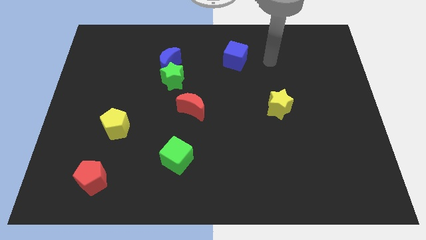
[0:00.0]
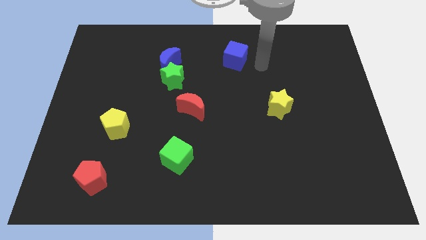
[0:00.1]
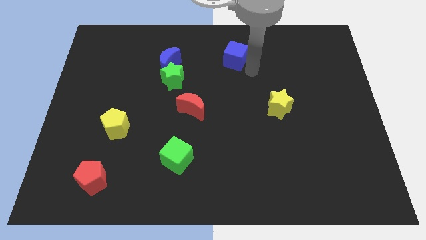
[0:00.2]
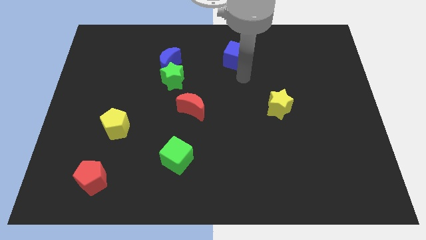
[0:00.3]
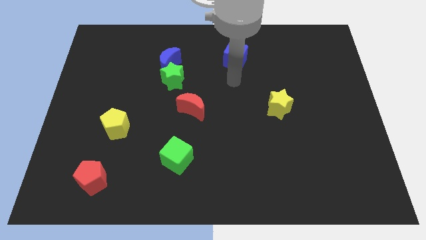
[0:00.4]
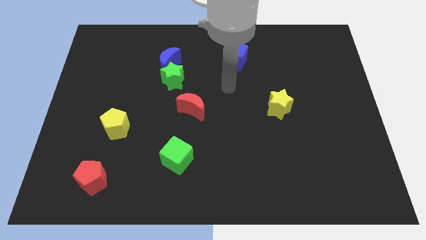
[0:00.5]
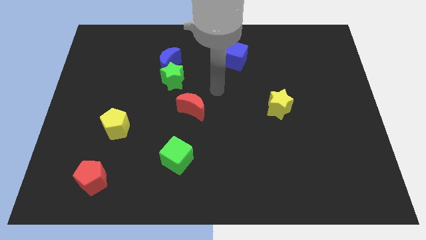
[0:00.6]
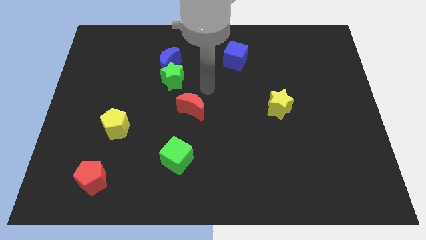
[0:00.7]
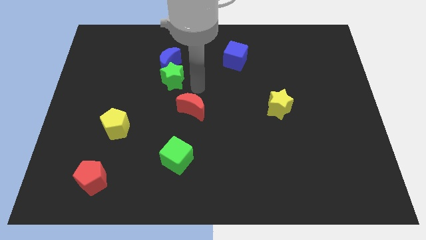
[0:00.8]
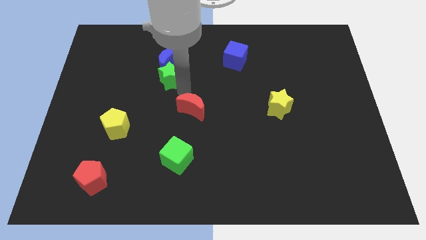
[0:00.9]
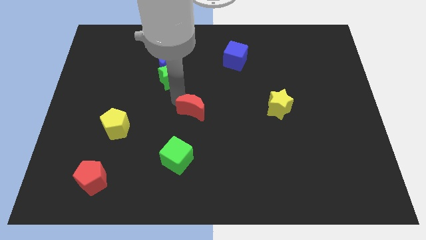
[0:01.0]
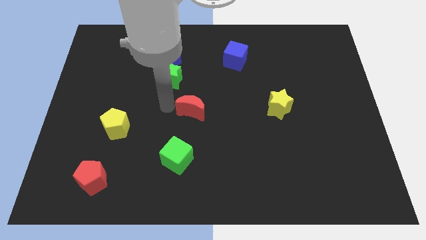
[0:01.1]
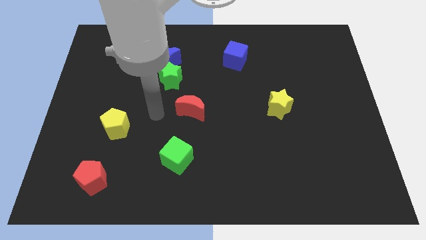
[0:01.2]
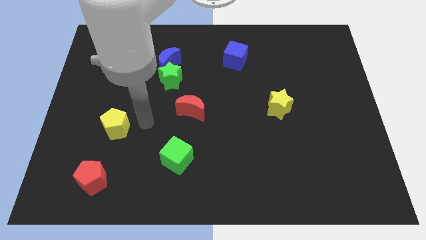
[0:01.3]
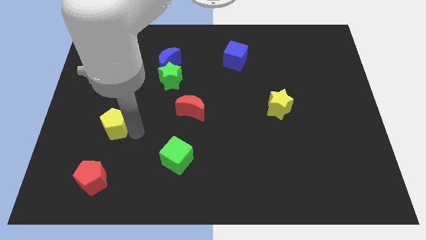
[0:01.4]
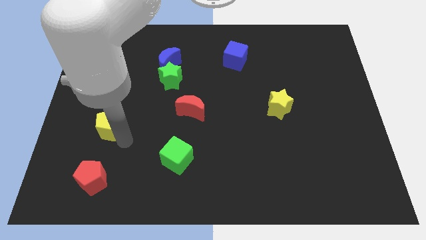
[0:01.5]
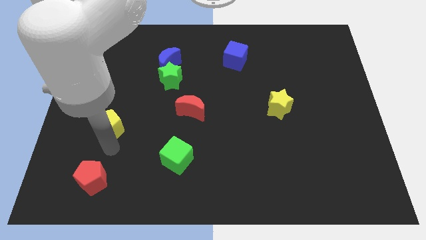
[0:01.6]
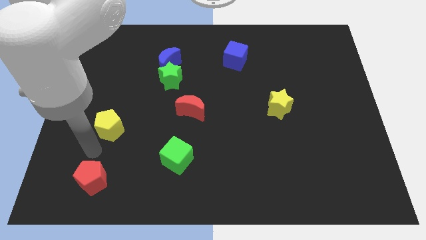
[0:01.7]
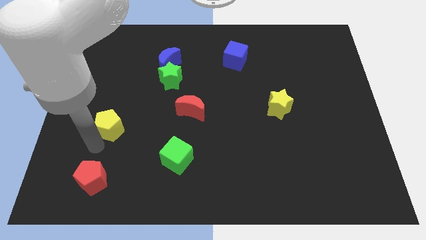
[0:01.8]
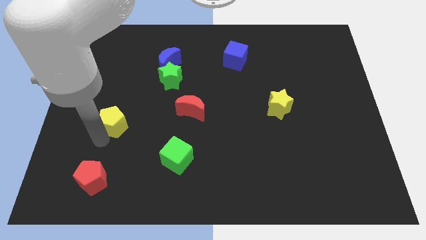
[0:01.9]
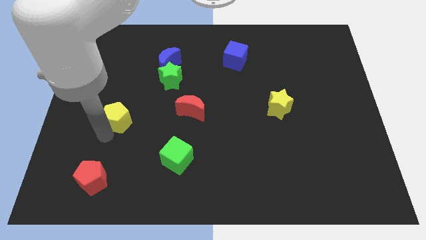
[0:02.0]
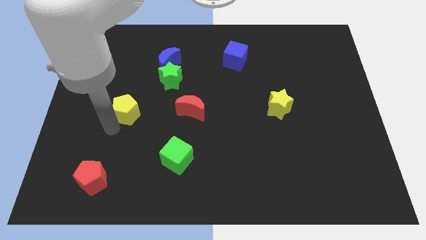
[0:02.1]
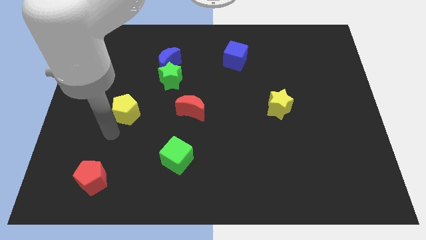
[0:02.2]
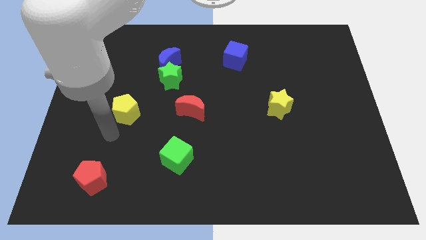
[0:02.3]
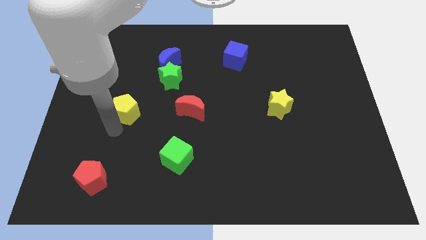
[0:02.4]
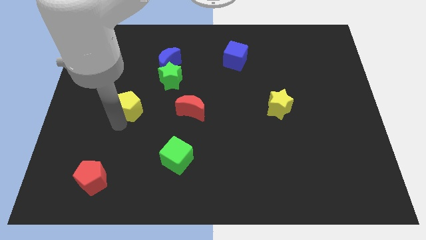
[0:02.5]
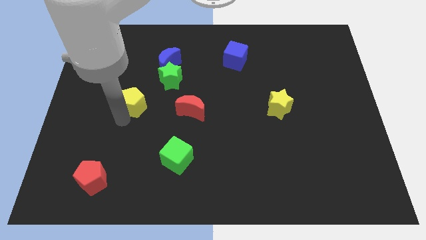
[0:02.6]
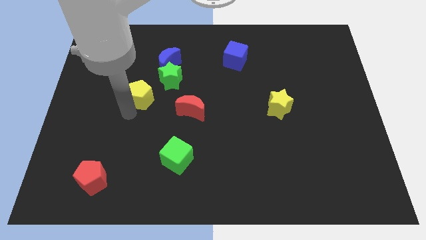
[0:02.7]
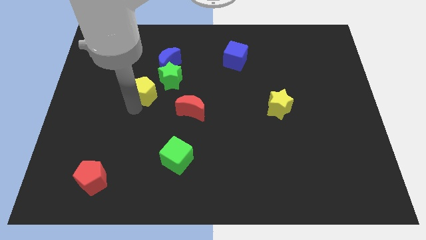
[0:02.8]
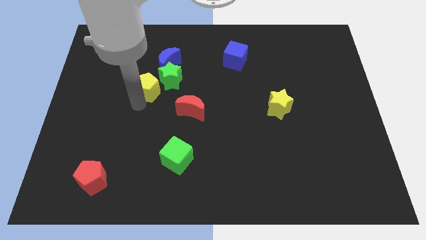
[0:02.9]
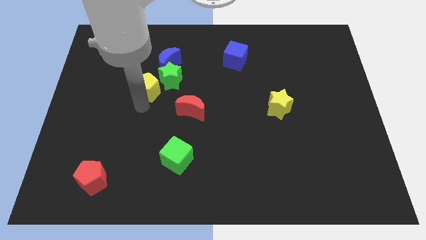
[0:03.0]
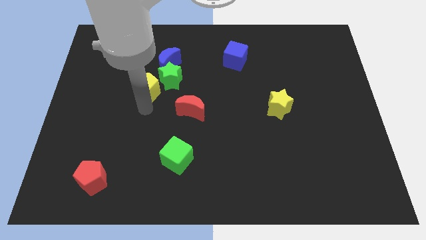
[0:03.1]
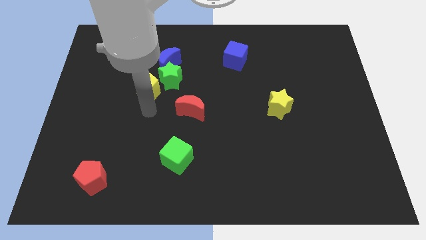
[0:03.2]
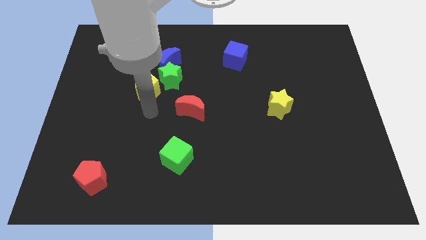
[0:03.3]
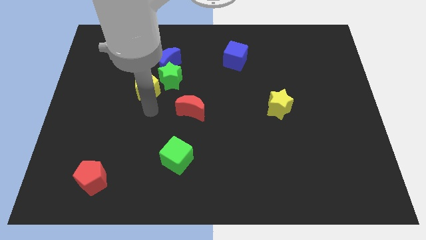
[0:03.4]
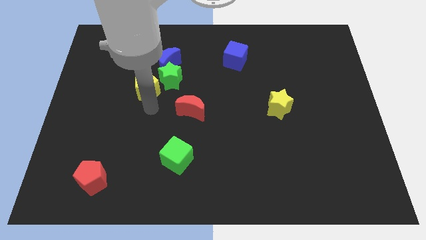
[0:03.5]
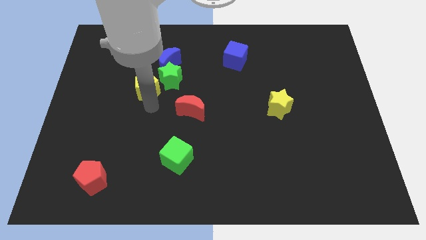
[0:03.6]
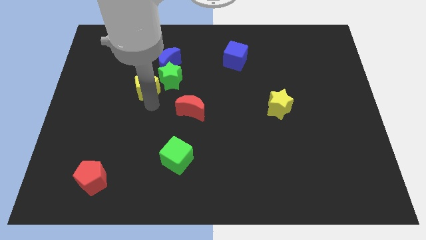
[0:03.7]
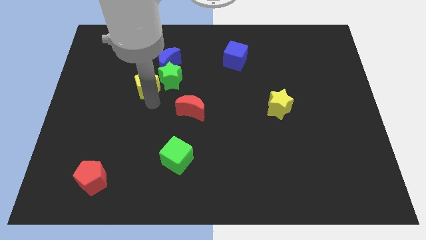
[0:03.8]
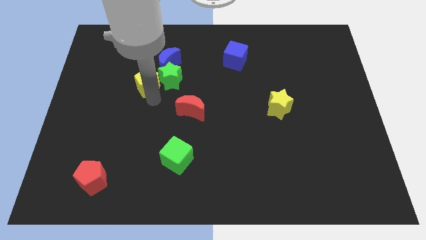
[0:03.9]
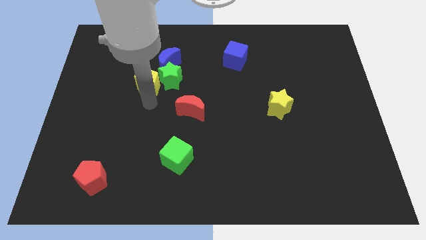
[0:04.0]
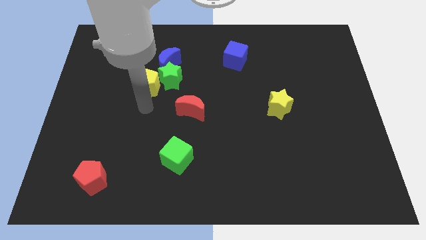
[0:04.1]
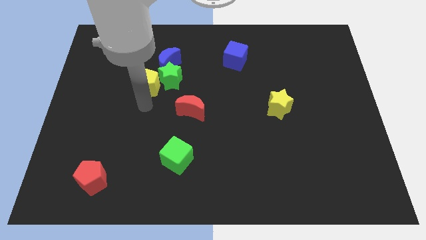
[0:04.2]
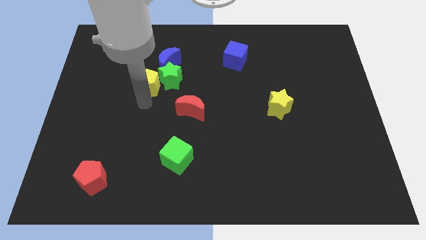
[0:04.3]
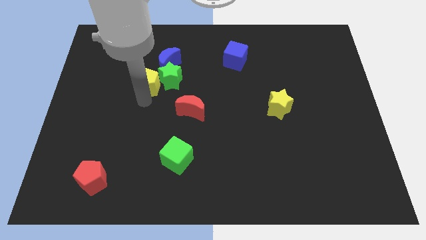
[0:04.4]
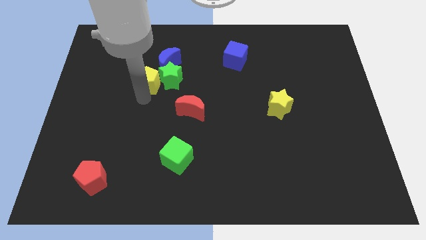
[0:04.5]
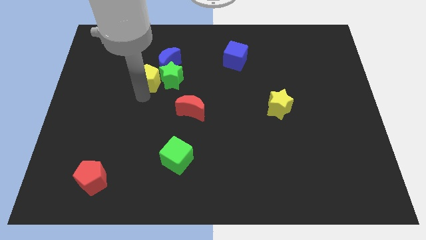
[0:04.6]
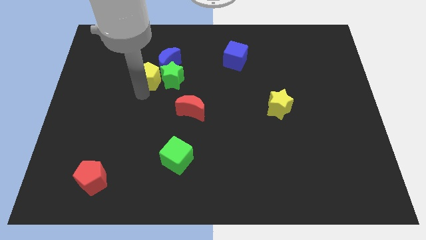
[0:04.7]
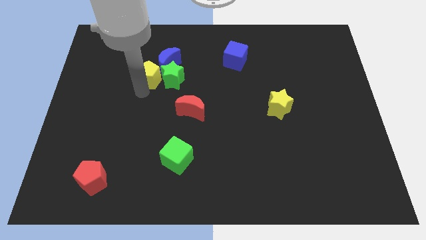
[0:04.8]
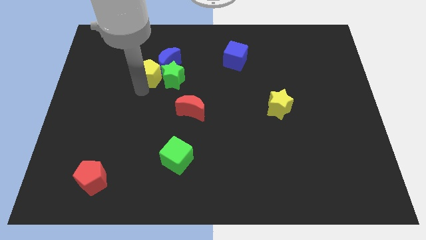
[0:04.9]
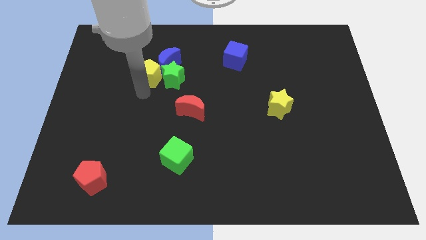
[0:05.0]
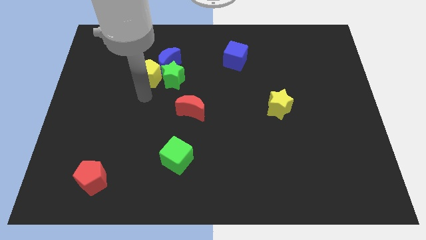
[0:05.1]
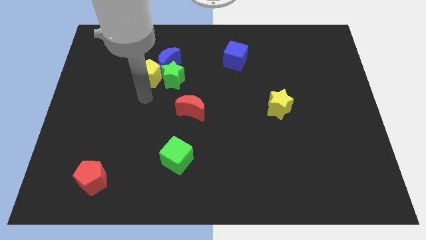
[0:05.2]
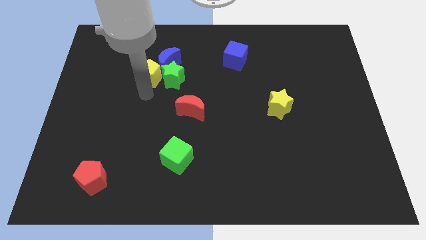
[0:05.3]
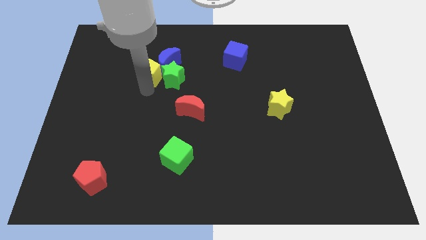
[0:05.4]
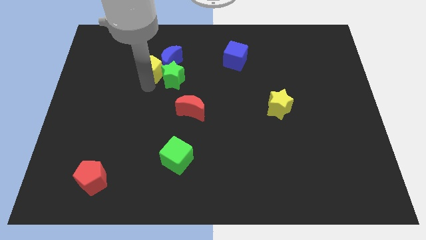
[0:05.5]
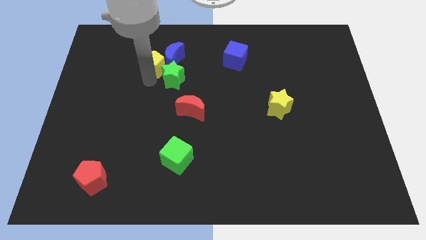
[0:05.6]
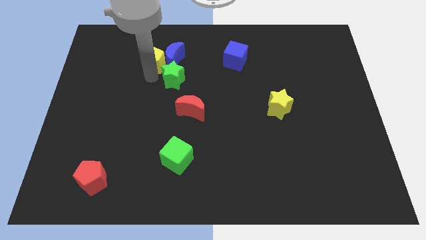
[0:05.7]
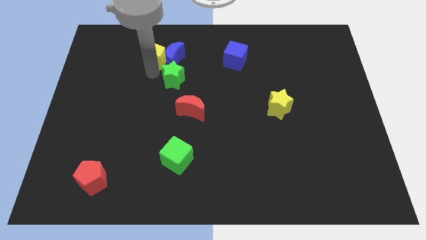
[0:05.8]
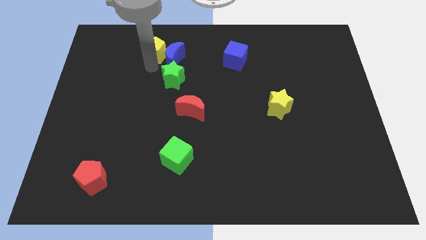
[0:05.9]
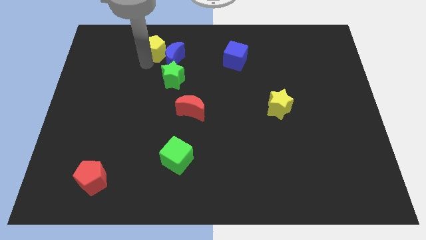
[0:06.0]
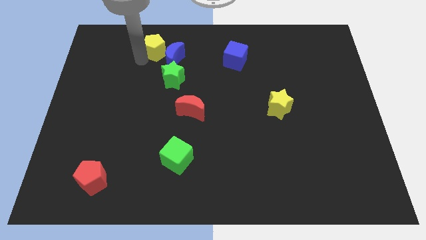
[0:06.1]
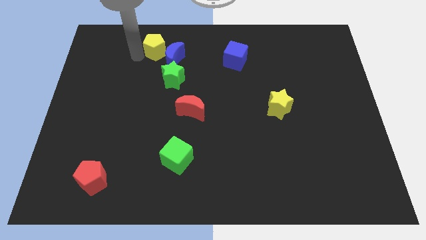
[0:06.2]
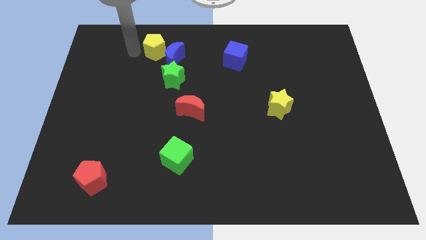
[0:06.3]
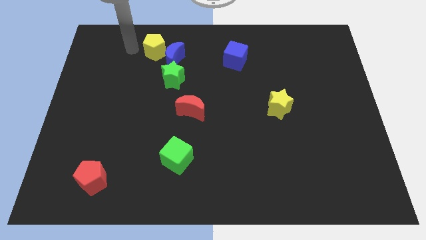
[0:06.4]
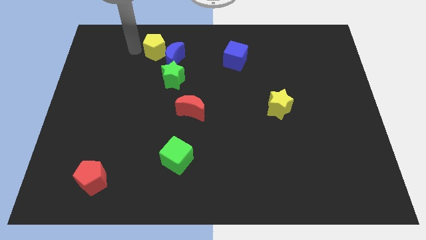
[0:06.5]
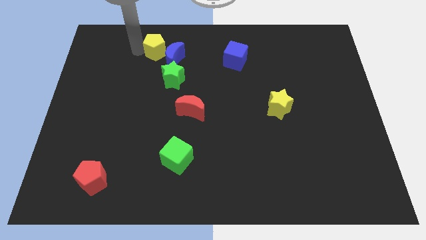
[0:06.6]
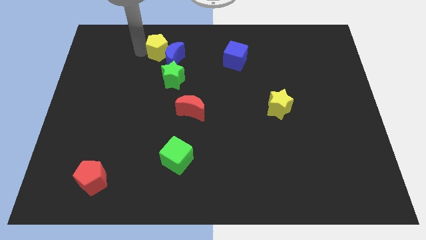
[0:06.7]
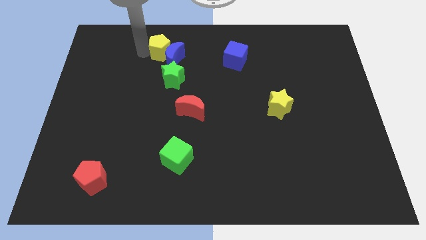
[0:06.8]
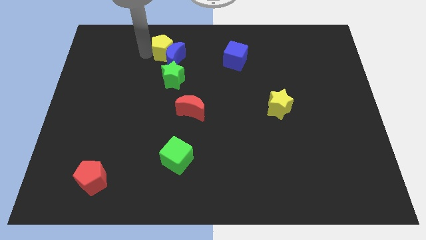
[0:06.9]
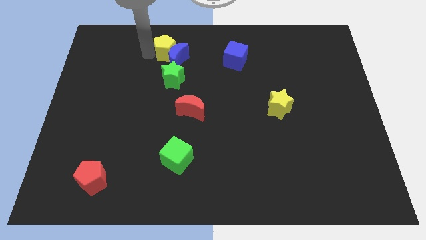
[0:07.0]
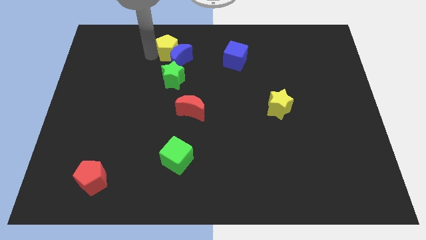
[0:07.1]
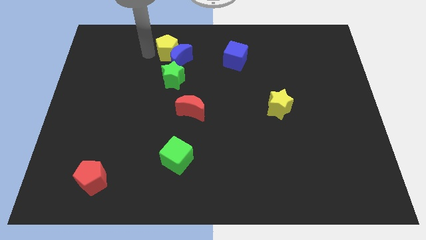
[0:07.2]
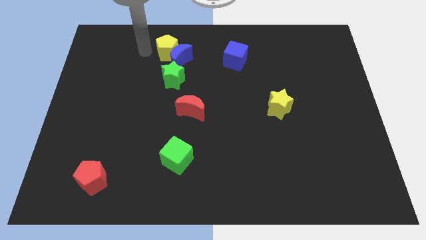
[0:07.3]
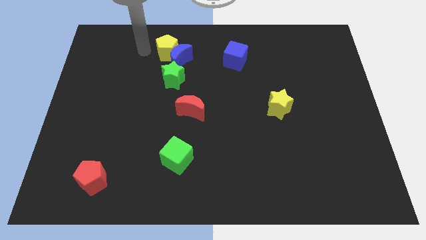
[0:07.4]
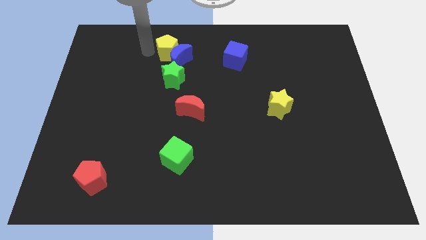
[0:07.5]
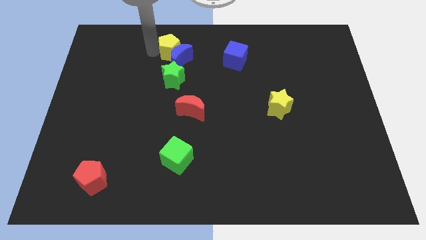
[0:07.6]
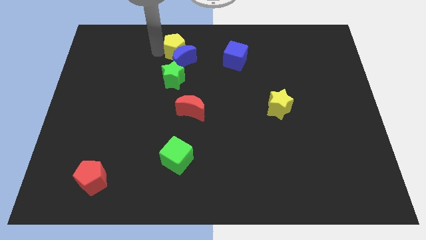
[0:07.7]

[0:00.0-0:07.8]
slide the yellow pentagon upwards and to the right
